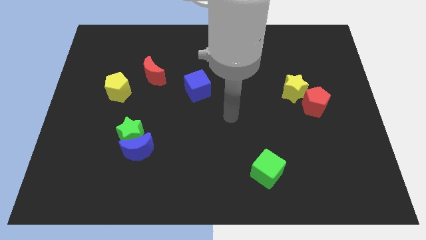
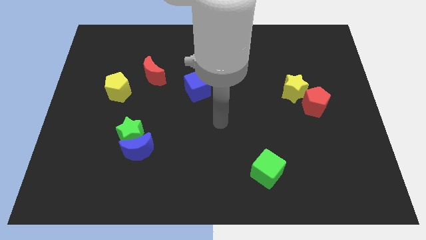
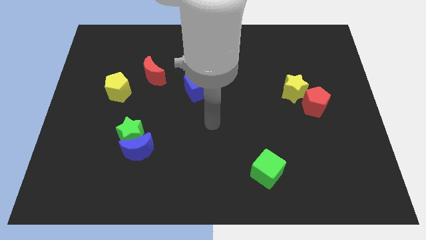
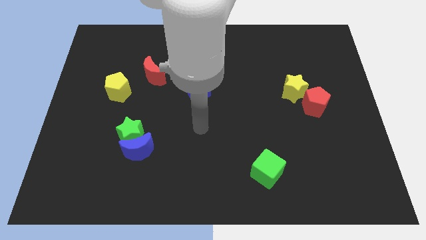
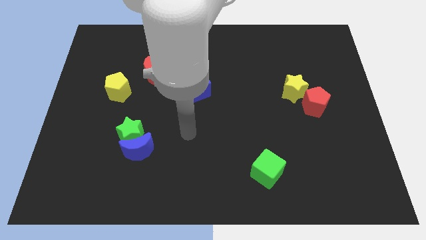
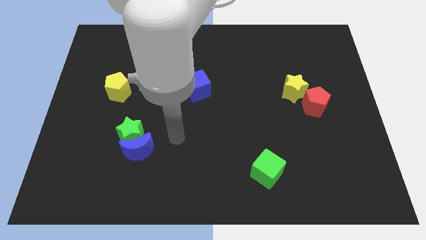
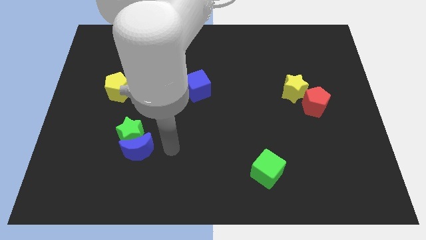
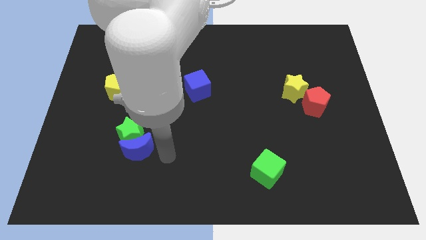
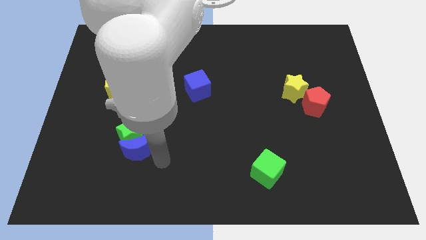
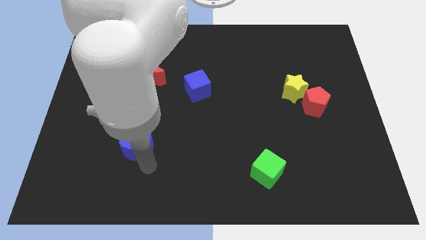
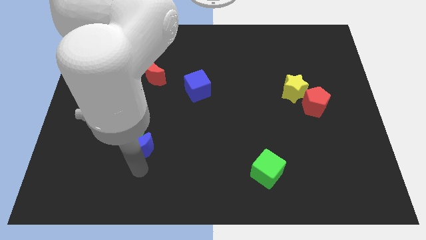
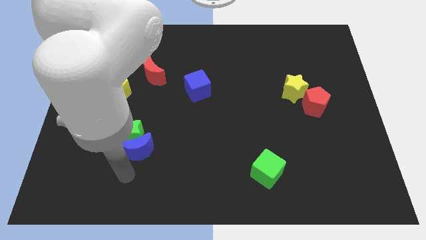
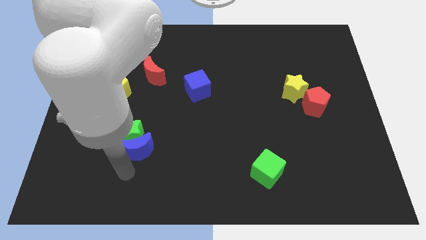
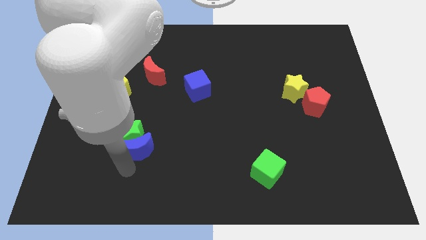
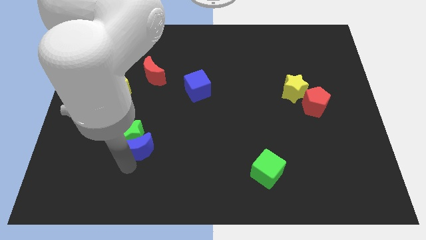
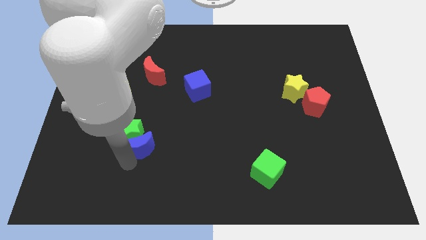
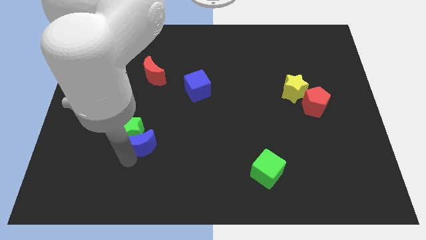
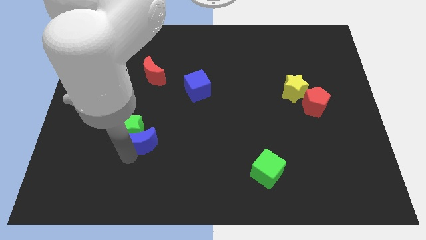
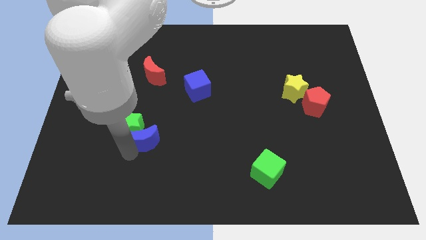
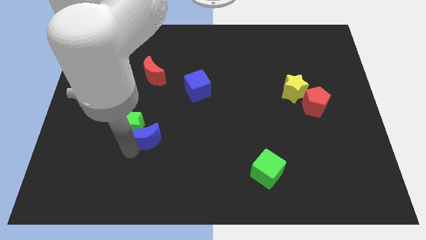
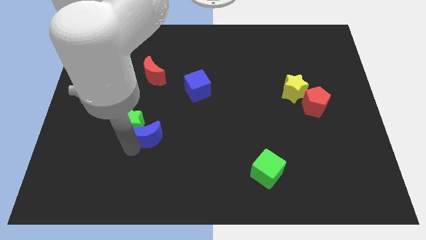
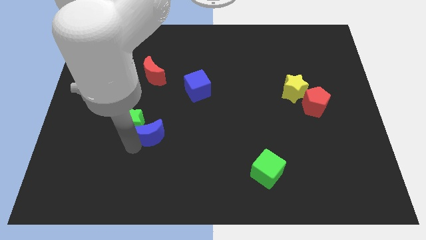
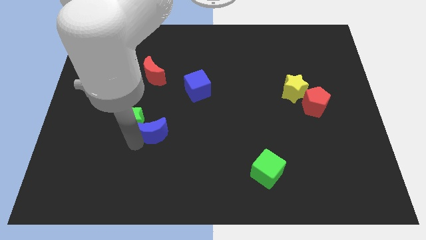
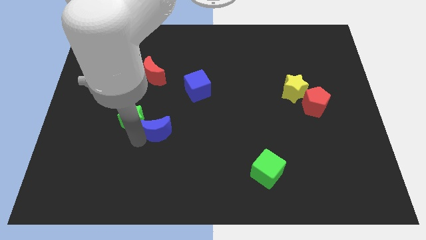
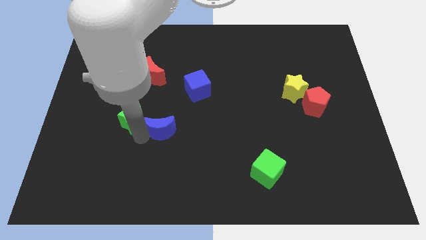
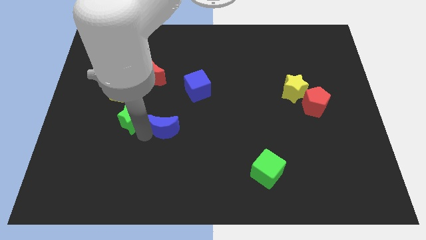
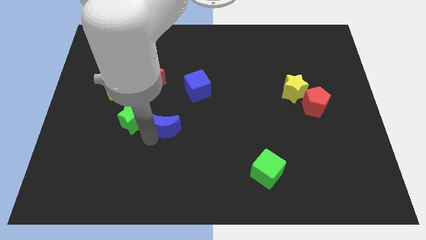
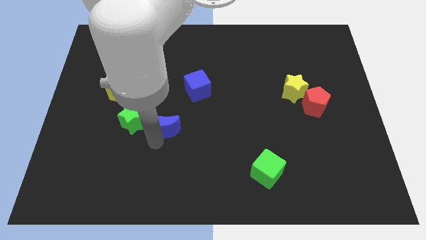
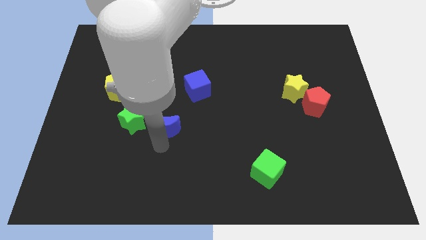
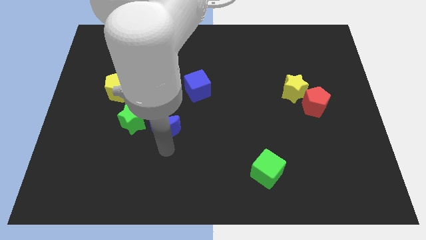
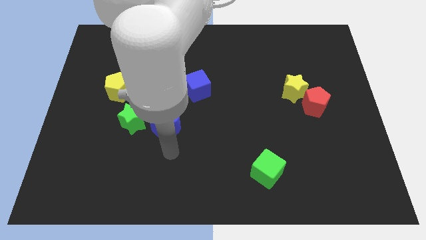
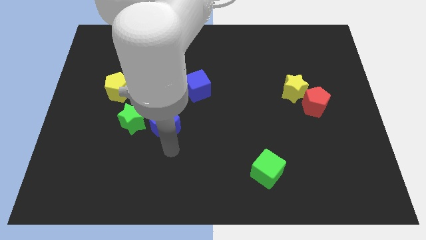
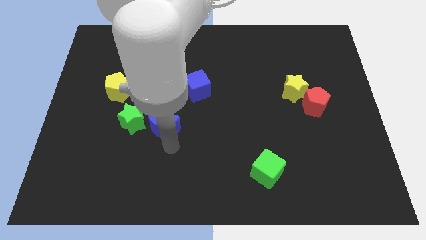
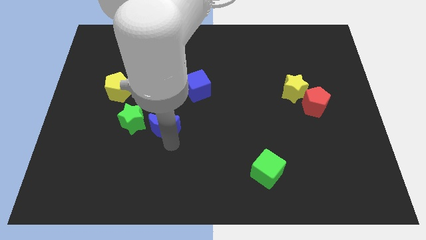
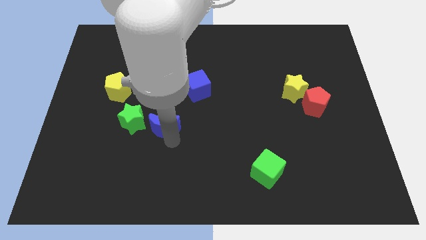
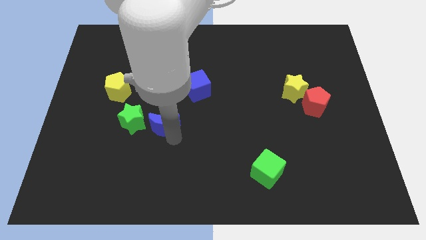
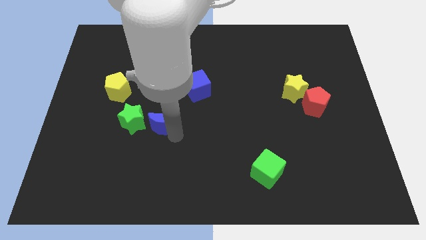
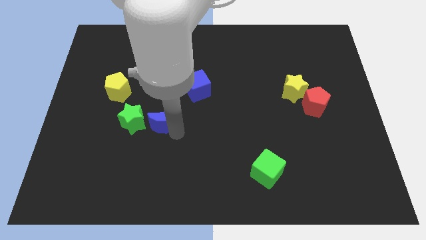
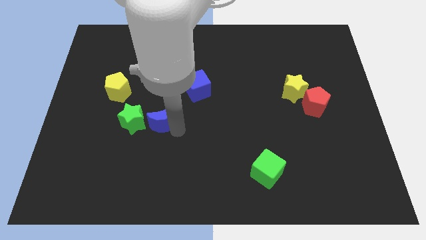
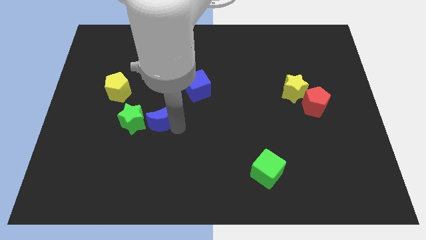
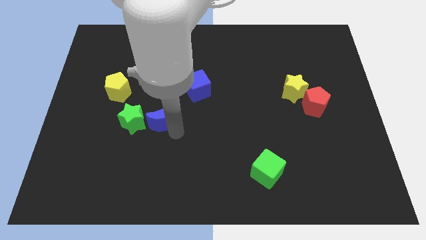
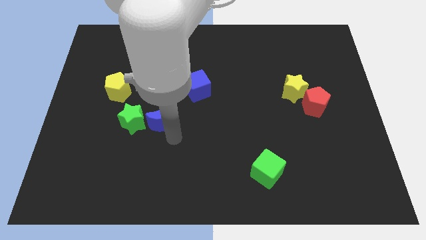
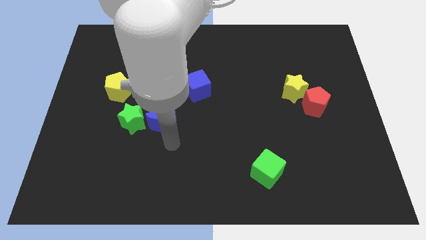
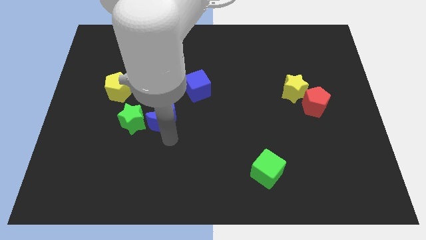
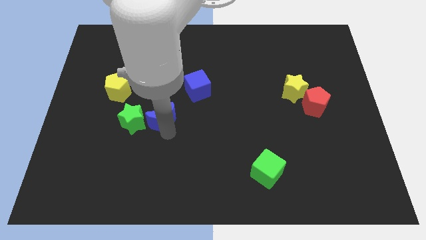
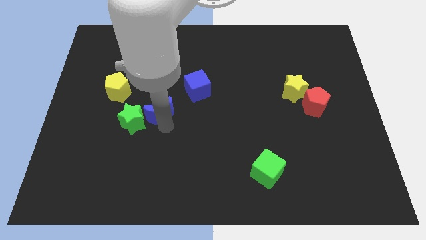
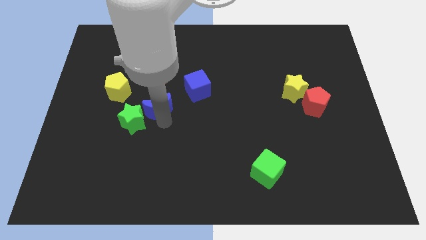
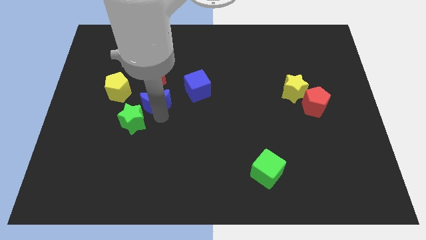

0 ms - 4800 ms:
put the blue moon to the right side of the yellow pentagon

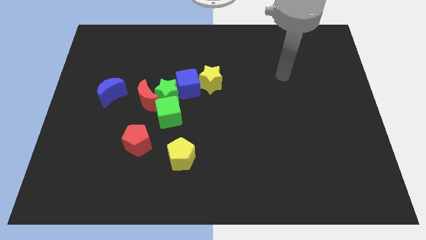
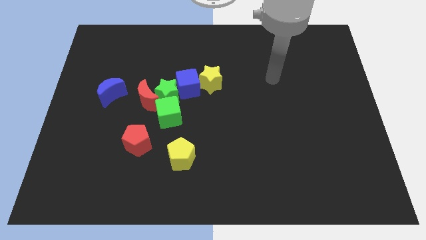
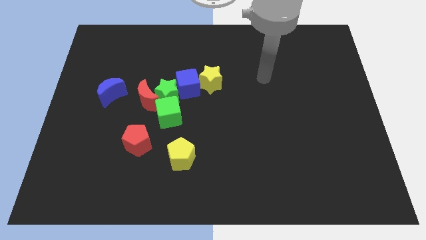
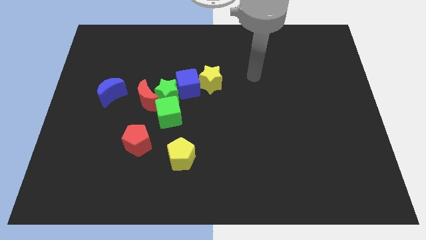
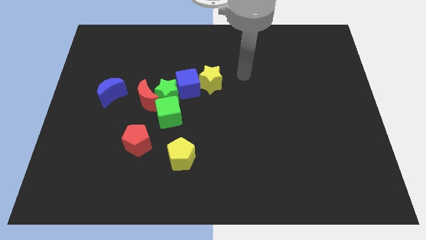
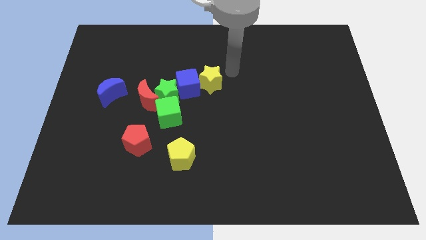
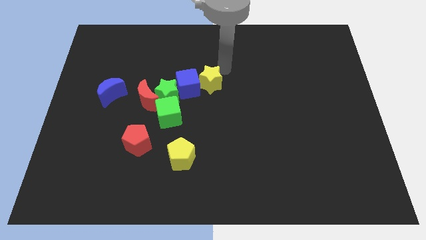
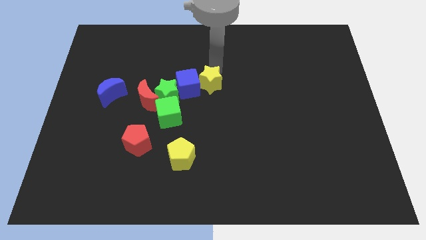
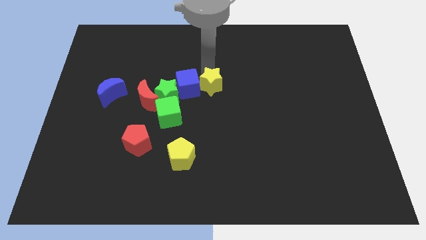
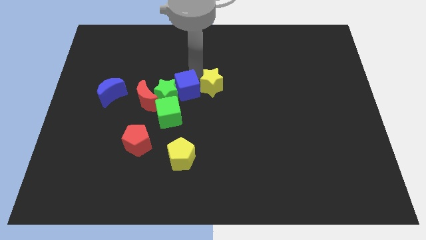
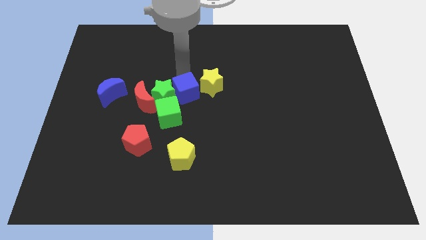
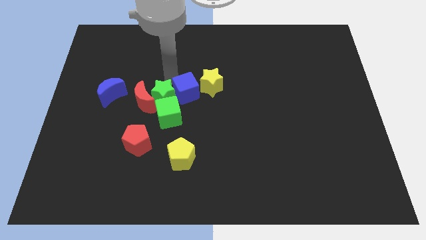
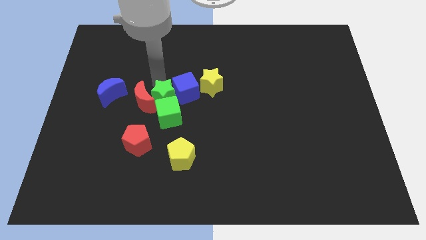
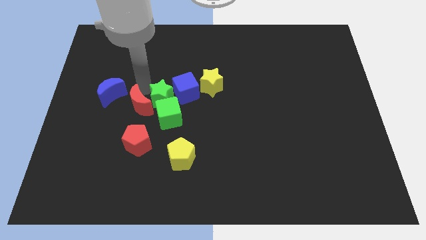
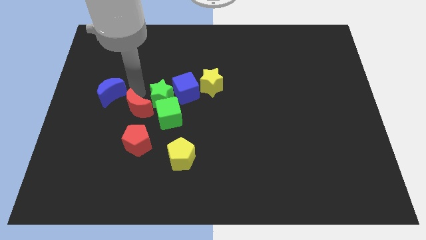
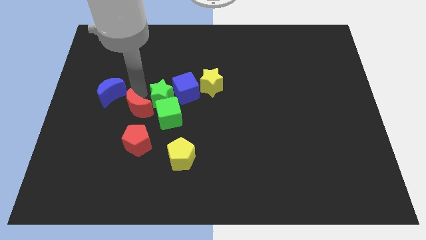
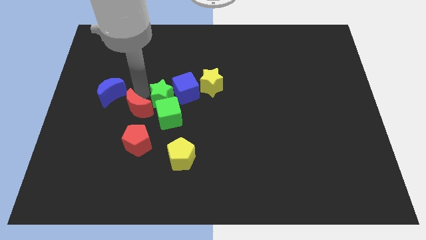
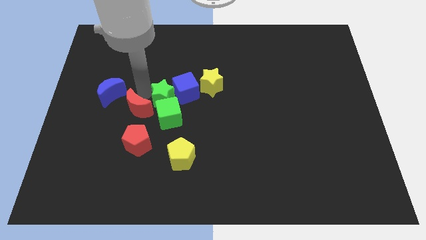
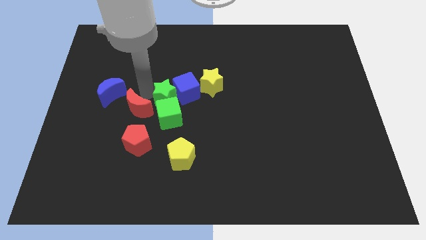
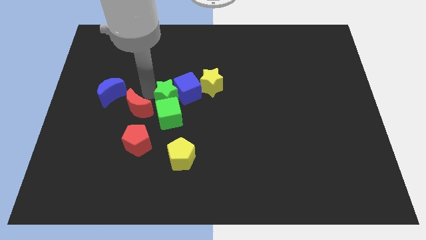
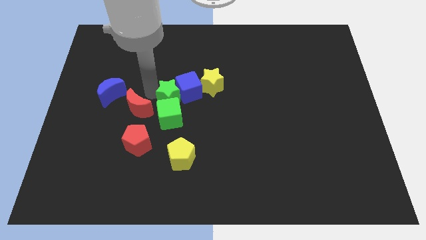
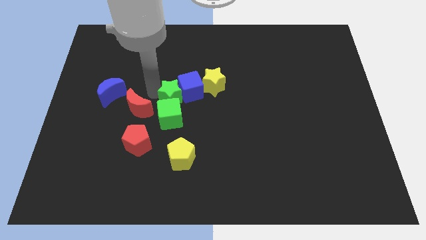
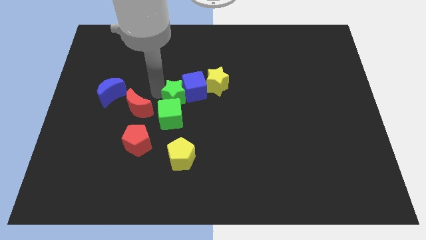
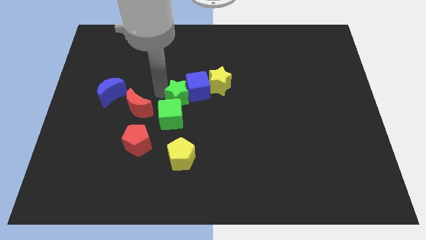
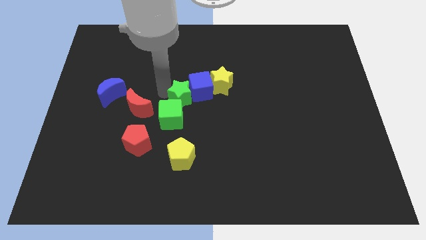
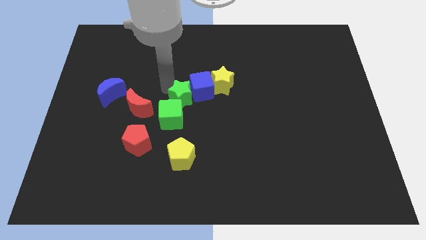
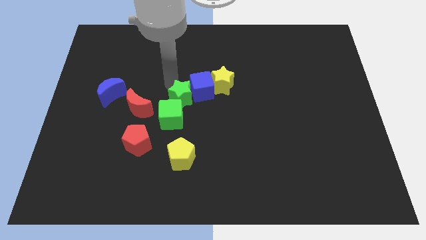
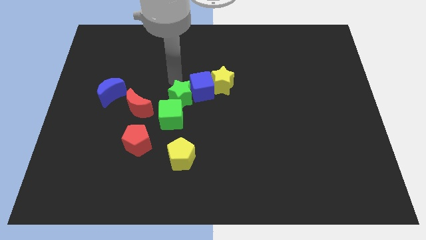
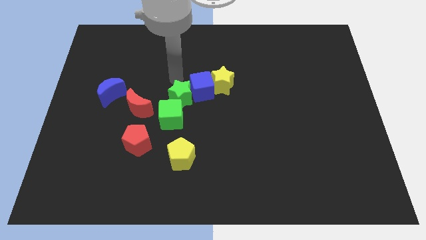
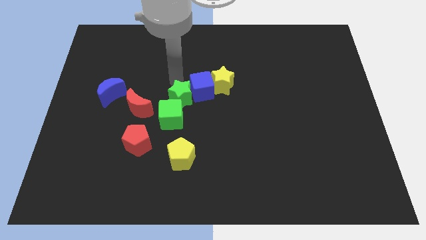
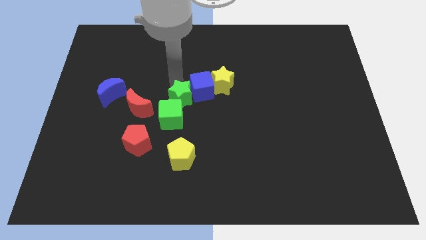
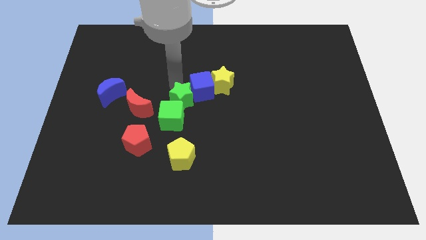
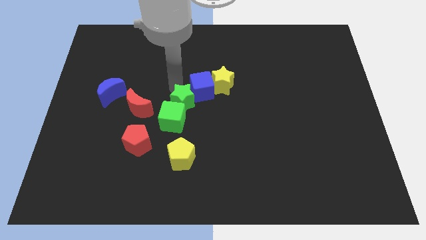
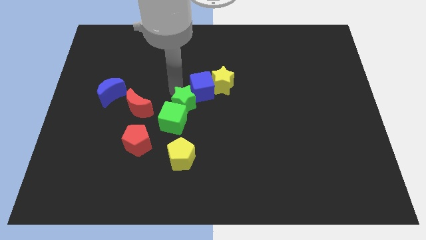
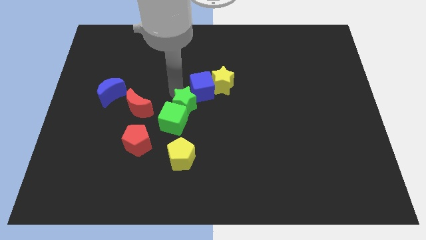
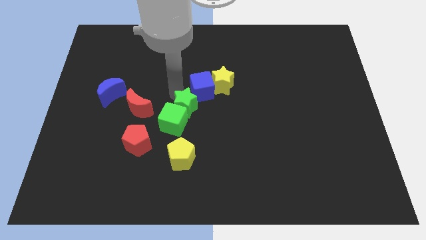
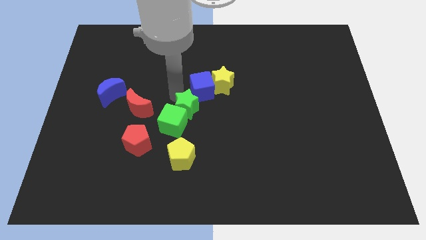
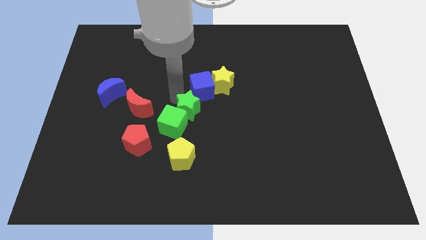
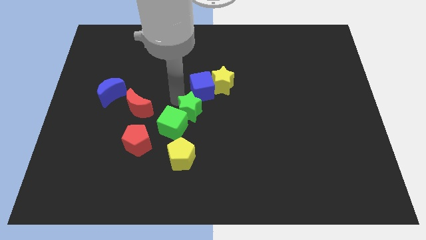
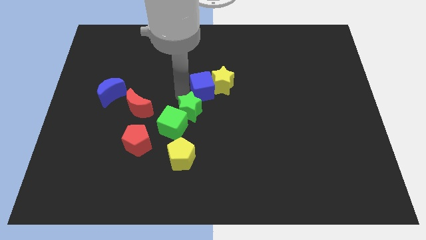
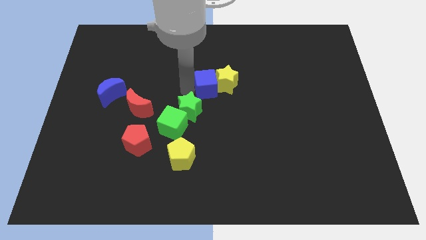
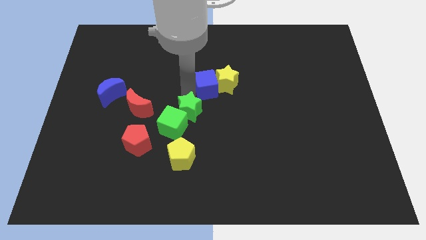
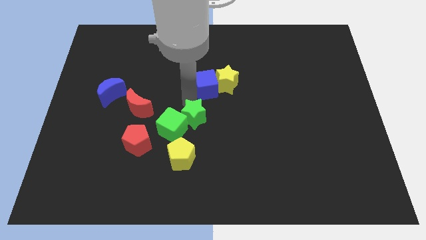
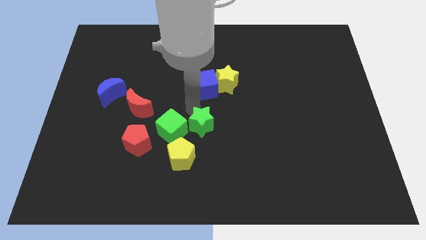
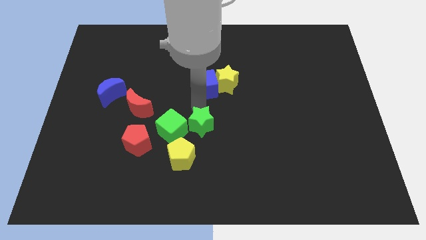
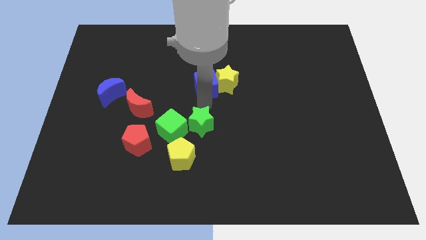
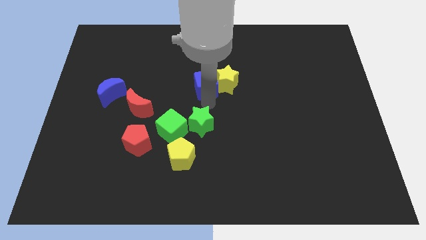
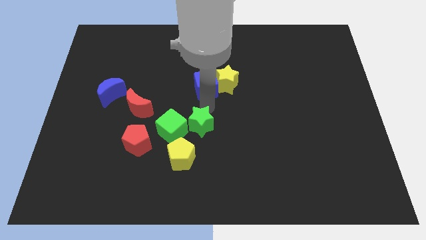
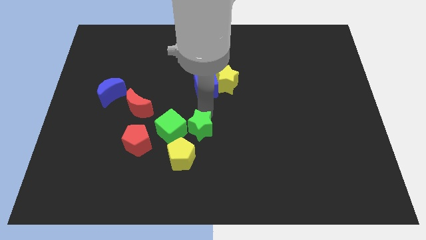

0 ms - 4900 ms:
move the green star to the bottom right side of the green cube
